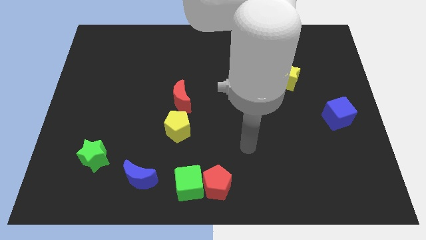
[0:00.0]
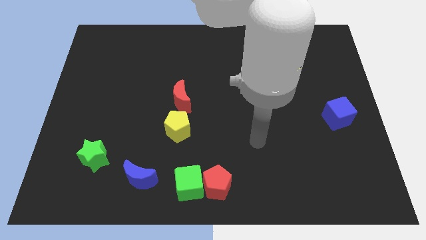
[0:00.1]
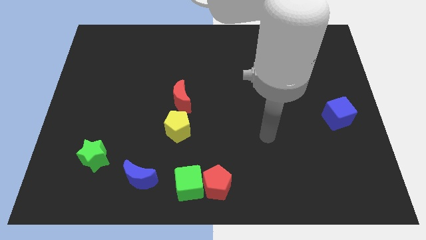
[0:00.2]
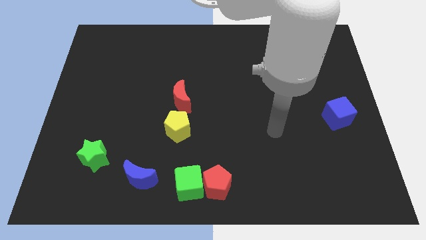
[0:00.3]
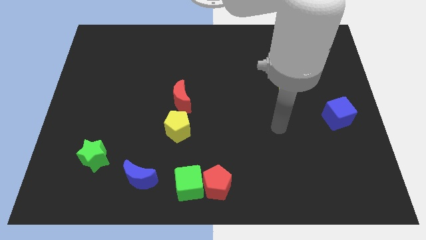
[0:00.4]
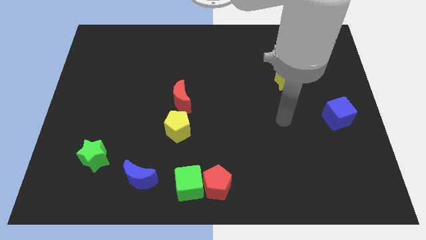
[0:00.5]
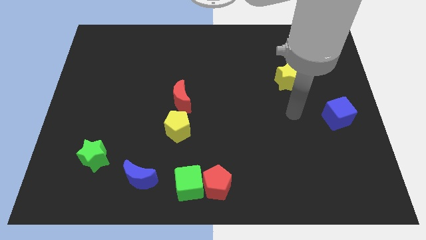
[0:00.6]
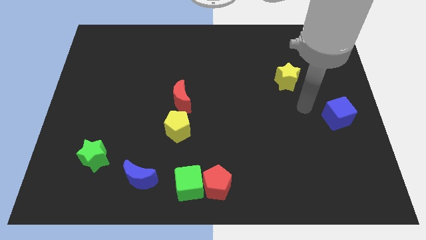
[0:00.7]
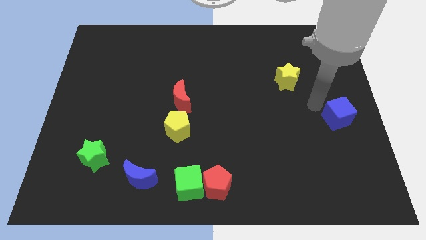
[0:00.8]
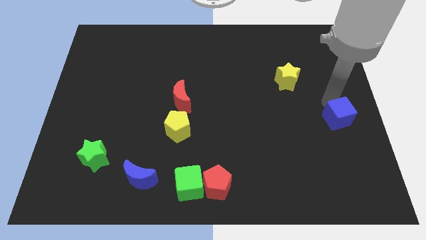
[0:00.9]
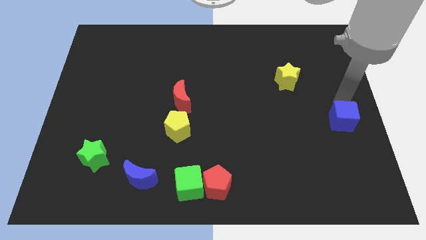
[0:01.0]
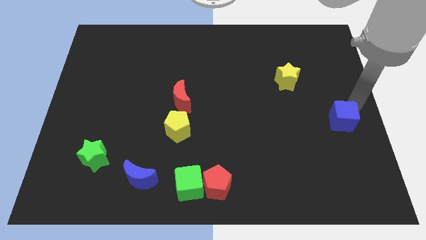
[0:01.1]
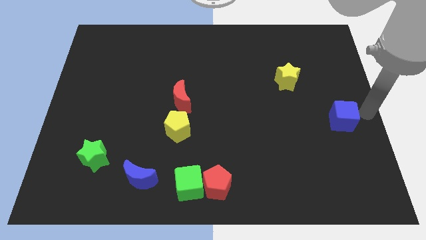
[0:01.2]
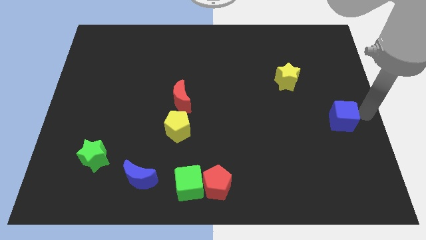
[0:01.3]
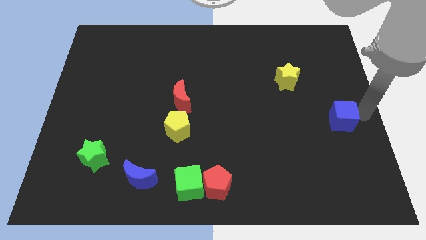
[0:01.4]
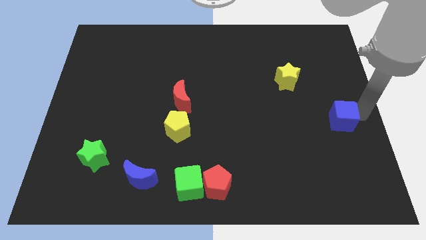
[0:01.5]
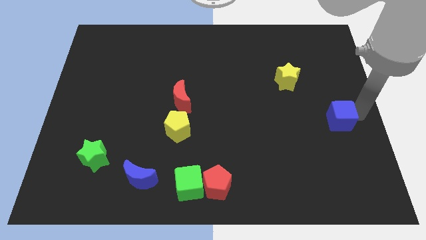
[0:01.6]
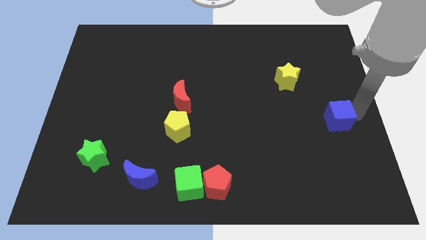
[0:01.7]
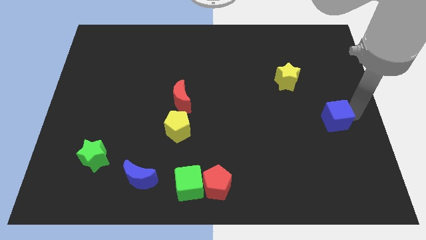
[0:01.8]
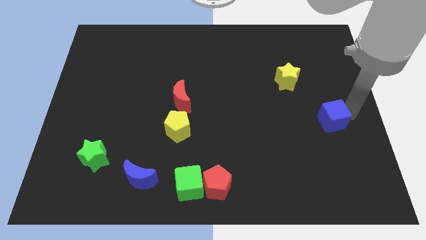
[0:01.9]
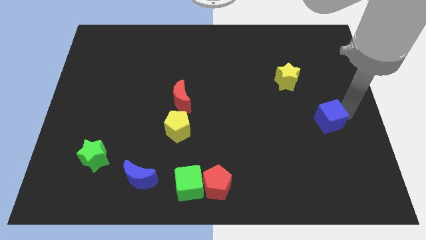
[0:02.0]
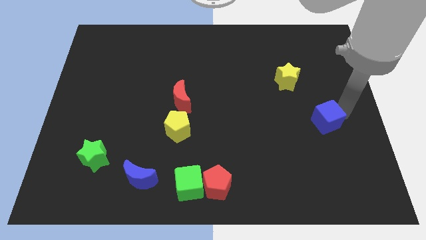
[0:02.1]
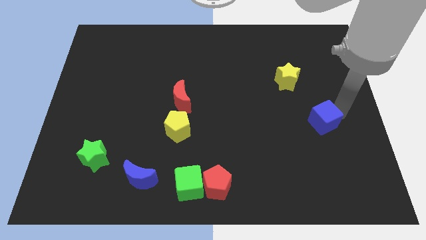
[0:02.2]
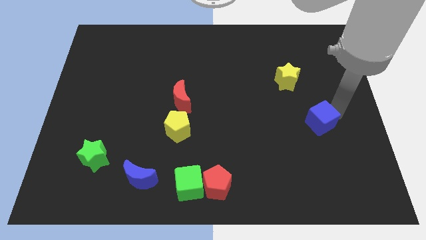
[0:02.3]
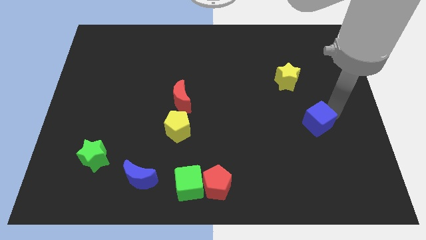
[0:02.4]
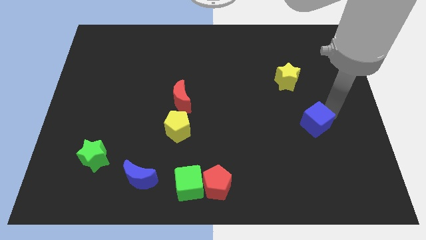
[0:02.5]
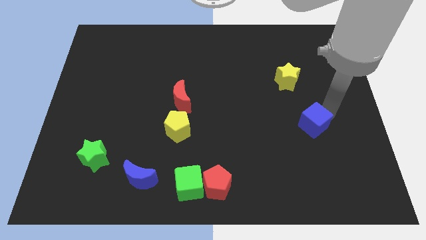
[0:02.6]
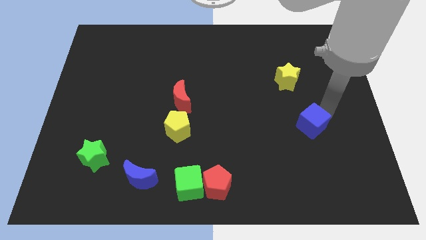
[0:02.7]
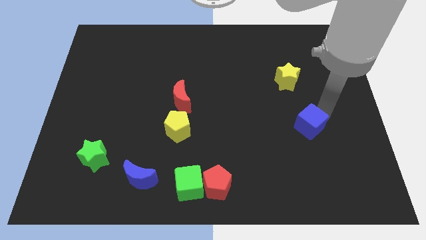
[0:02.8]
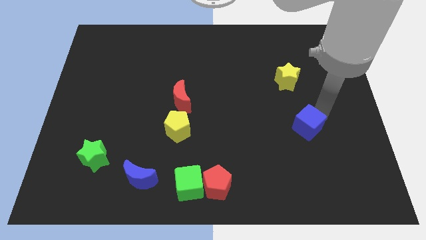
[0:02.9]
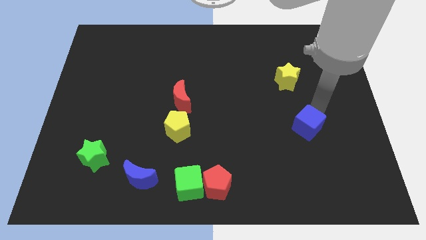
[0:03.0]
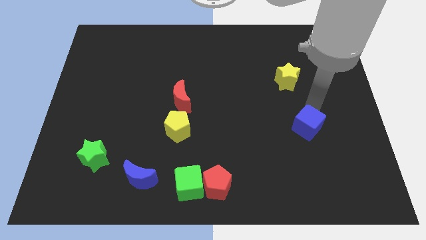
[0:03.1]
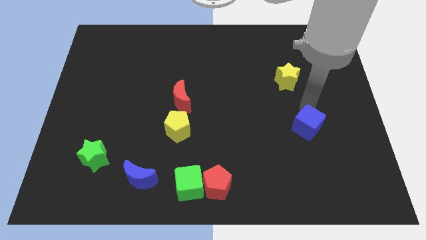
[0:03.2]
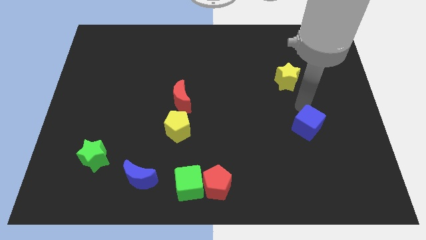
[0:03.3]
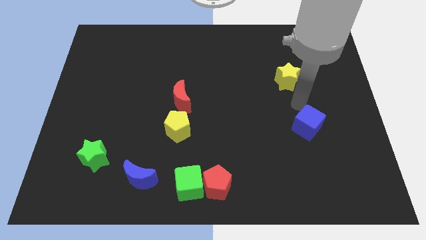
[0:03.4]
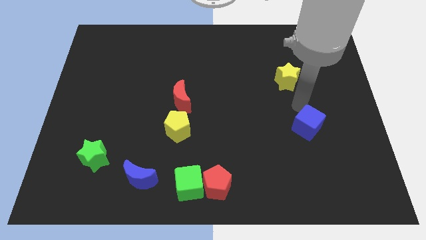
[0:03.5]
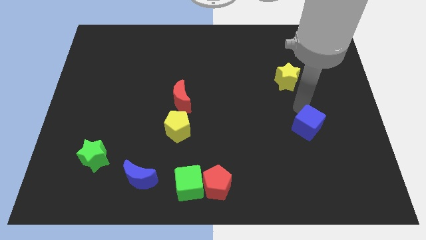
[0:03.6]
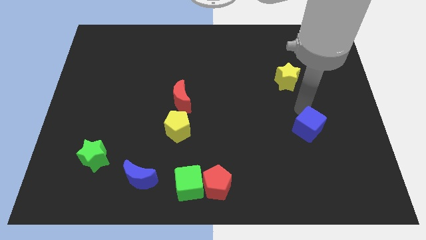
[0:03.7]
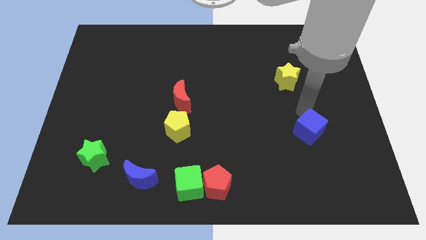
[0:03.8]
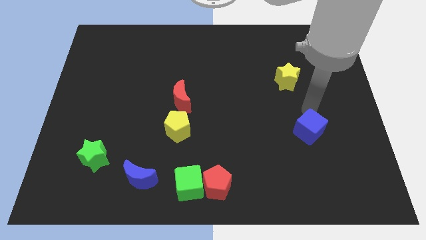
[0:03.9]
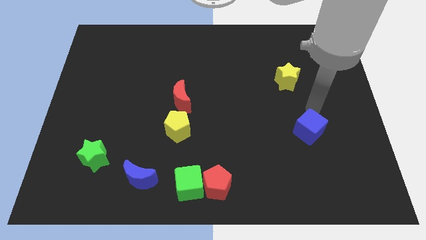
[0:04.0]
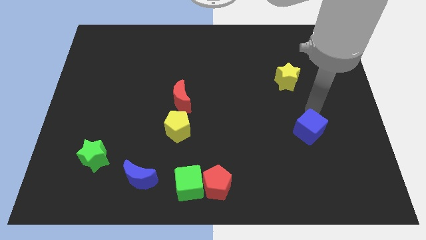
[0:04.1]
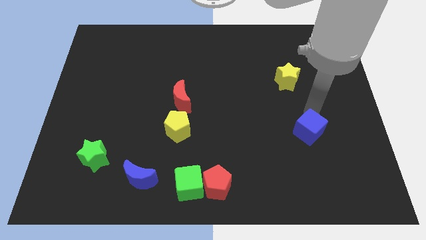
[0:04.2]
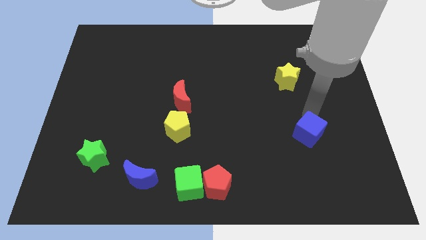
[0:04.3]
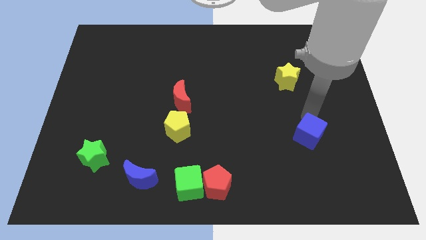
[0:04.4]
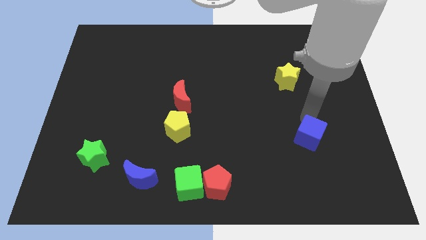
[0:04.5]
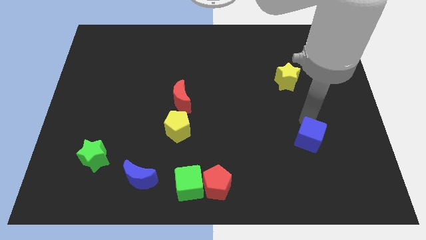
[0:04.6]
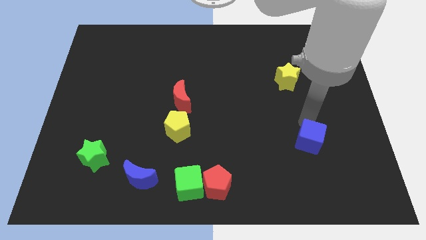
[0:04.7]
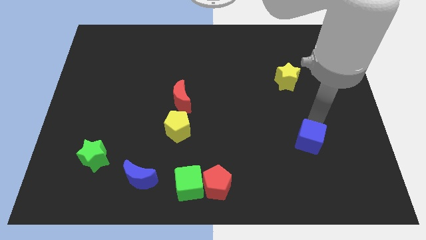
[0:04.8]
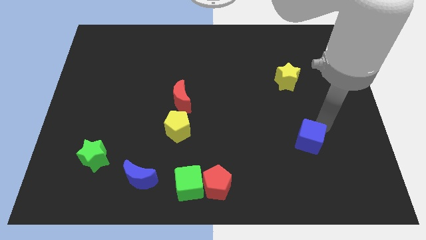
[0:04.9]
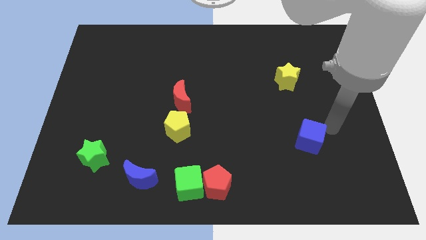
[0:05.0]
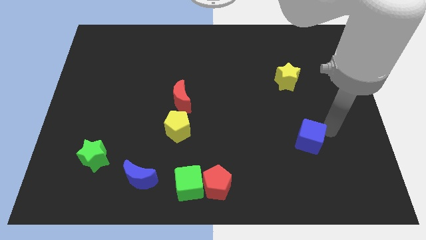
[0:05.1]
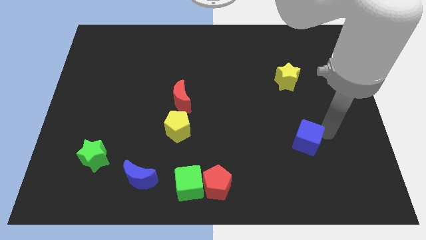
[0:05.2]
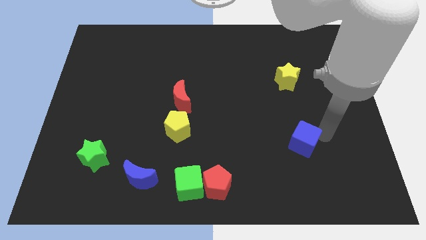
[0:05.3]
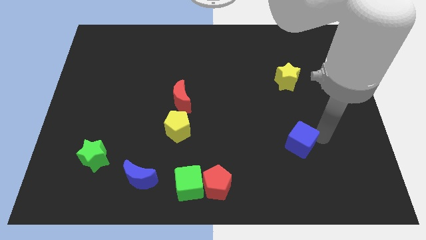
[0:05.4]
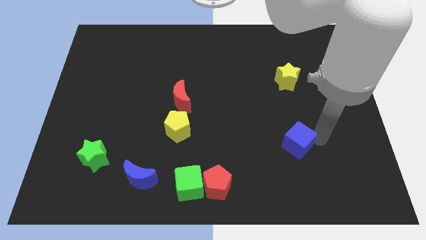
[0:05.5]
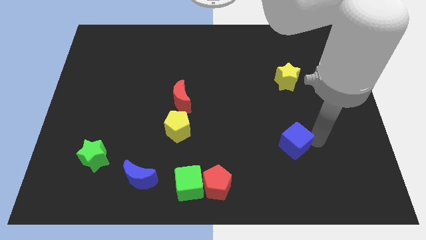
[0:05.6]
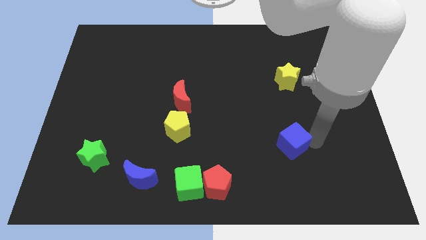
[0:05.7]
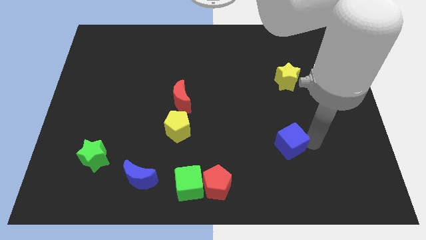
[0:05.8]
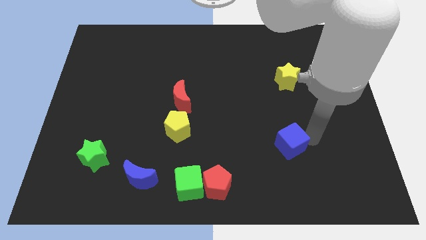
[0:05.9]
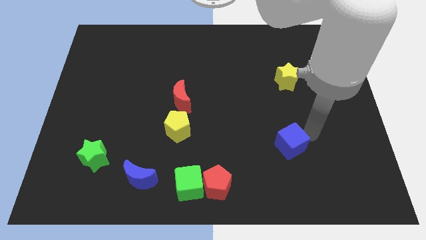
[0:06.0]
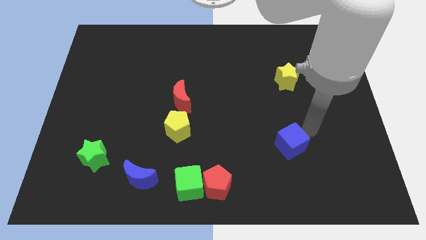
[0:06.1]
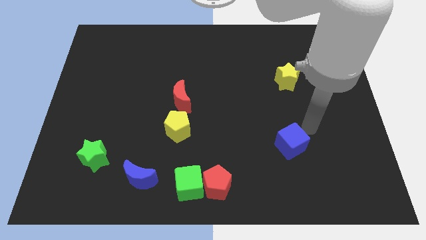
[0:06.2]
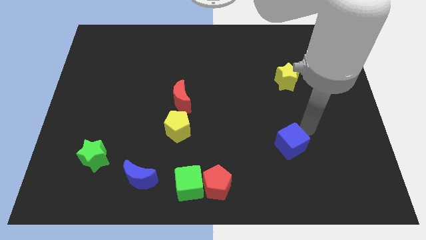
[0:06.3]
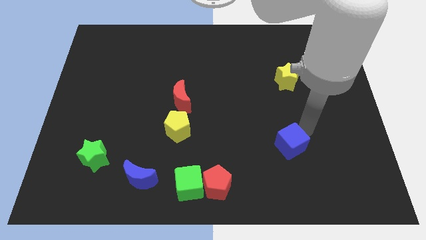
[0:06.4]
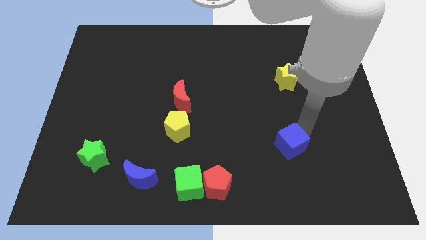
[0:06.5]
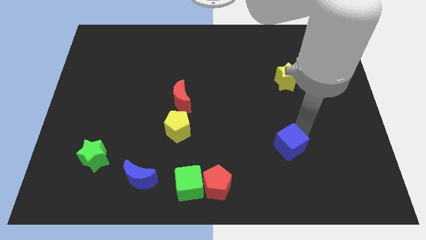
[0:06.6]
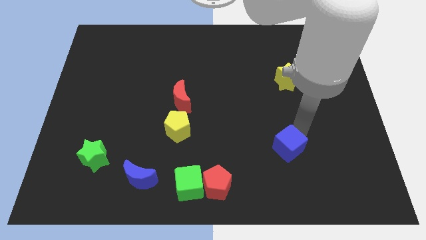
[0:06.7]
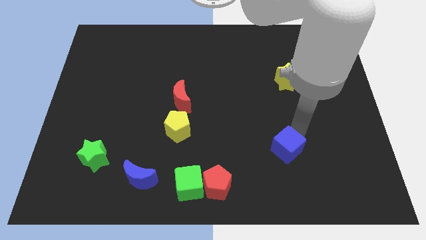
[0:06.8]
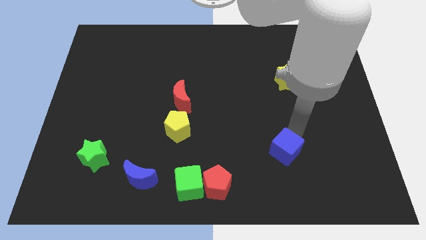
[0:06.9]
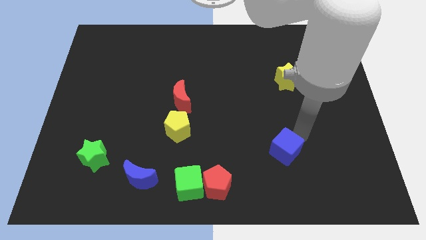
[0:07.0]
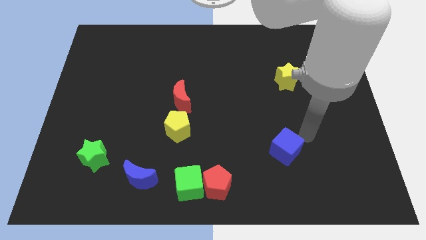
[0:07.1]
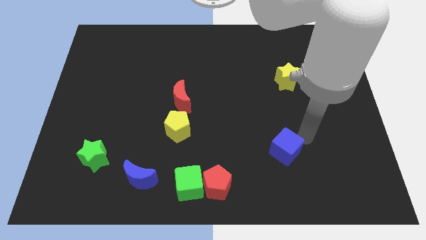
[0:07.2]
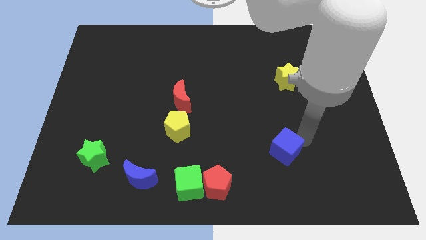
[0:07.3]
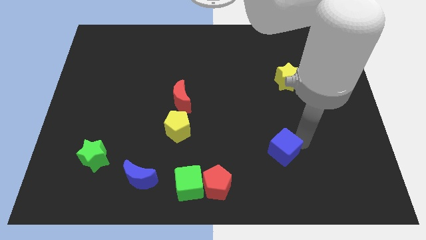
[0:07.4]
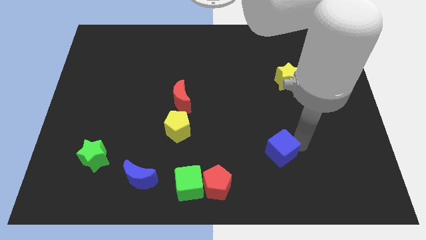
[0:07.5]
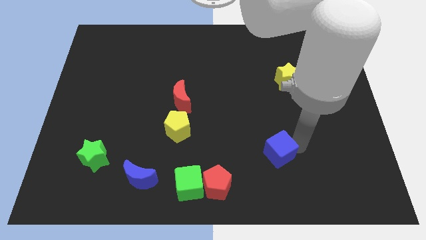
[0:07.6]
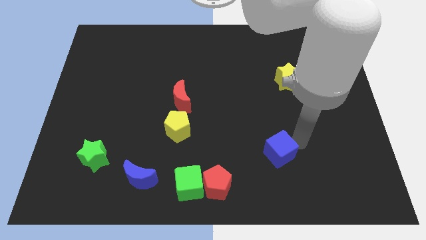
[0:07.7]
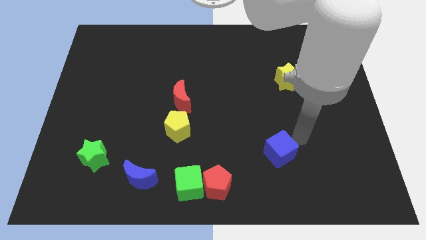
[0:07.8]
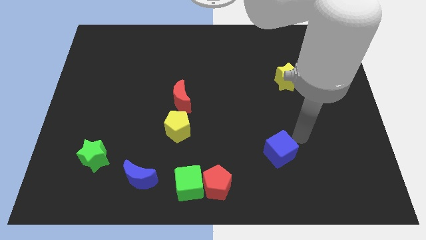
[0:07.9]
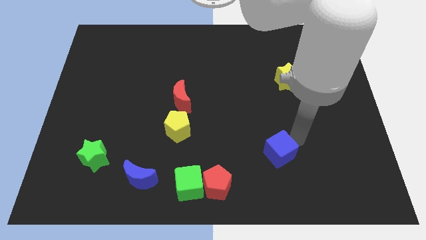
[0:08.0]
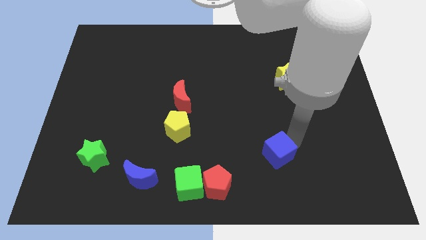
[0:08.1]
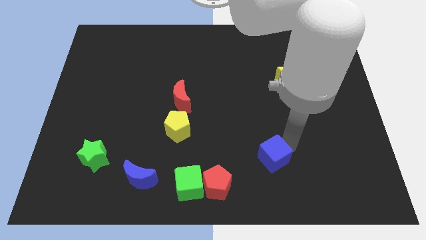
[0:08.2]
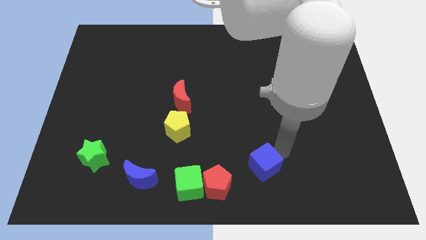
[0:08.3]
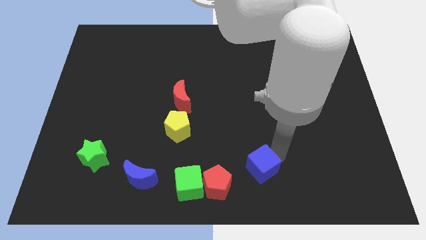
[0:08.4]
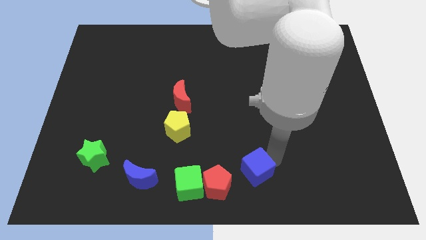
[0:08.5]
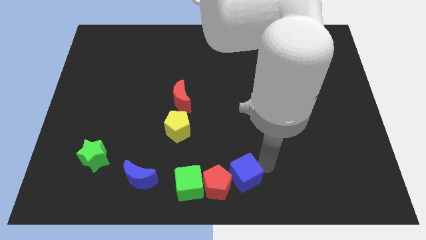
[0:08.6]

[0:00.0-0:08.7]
put the blue cube to the red pentagon
